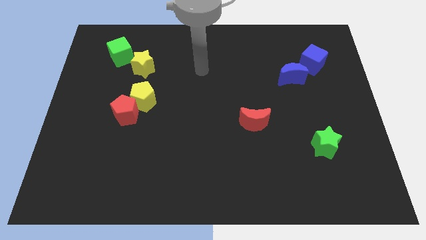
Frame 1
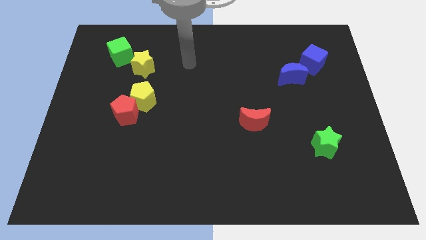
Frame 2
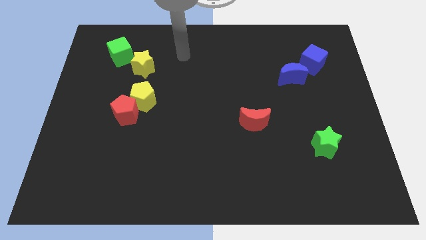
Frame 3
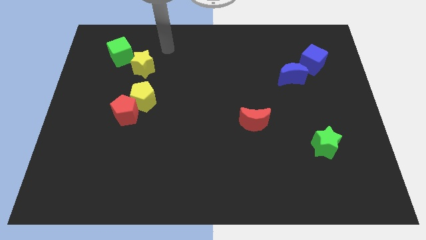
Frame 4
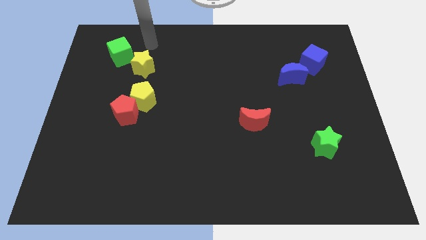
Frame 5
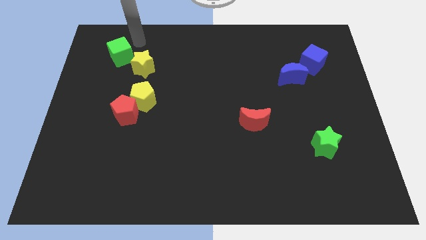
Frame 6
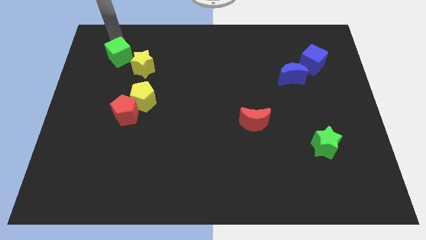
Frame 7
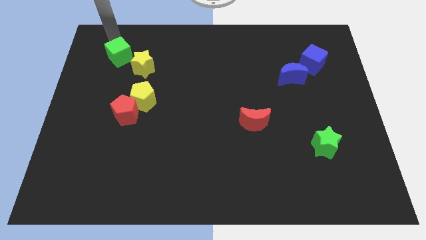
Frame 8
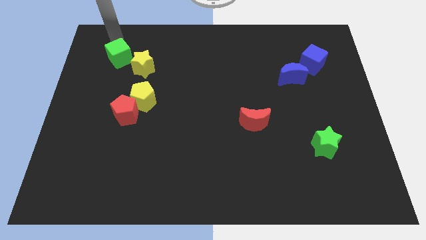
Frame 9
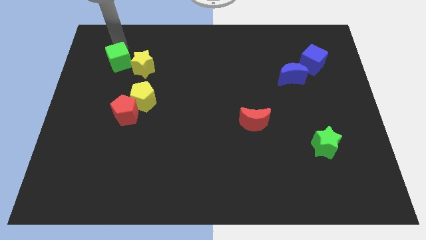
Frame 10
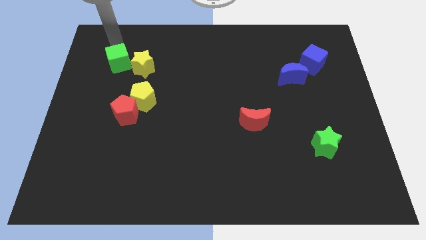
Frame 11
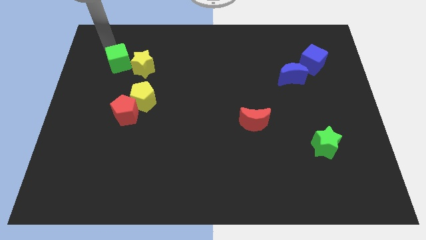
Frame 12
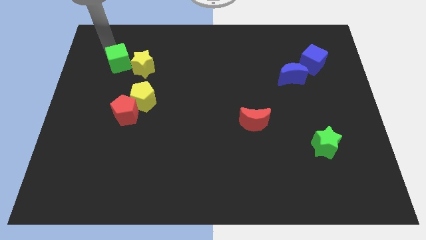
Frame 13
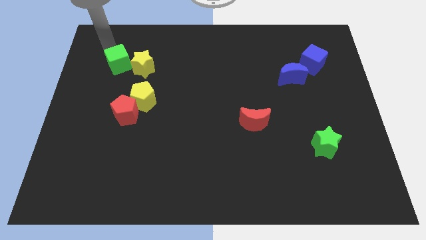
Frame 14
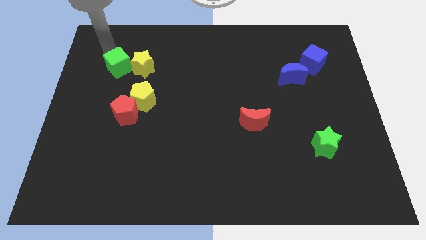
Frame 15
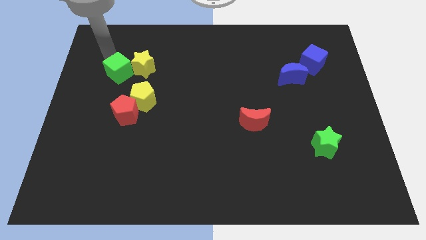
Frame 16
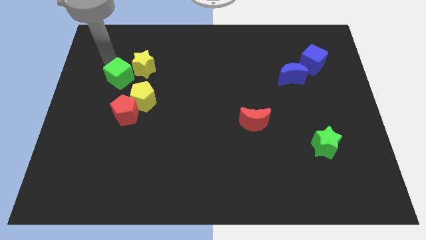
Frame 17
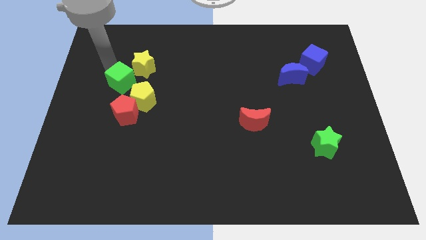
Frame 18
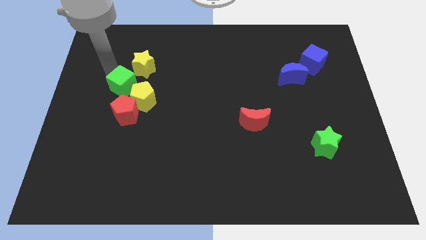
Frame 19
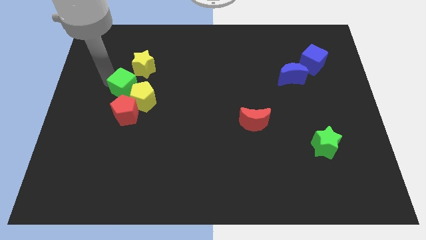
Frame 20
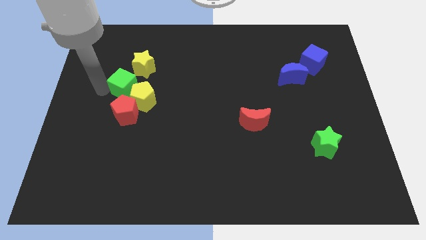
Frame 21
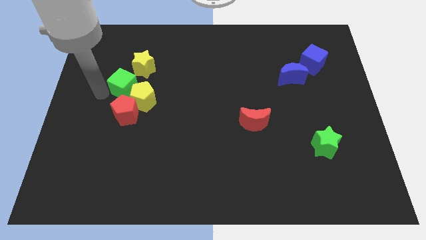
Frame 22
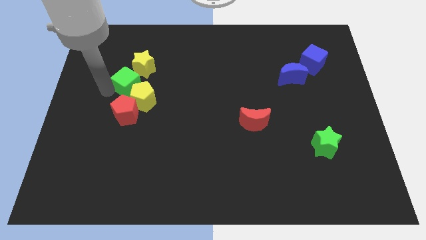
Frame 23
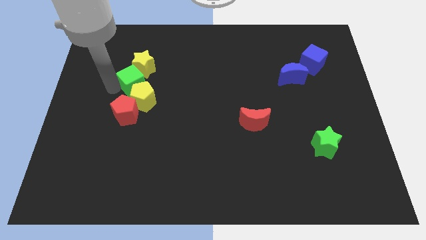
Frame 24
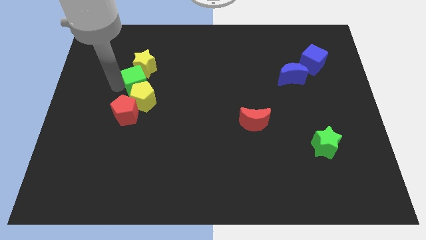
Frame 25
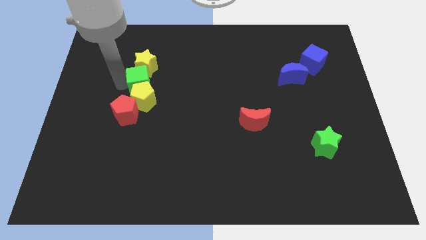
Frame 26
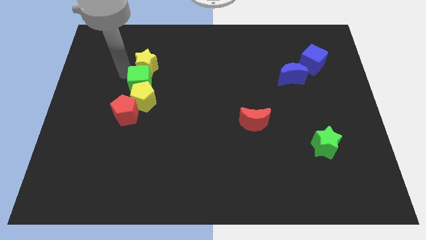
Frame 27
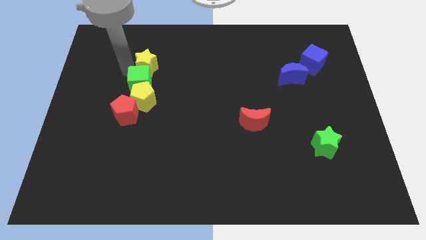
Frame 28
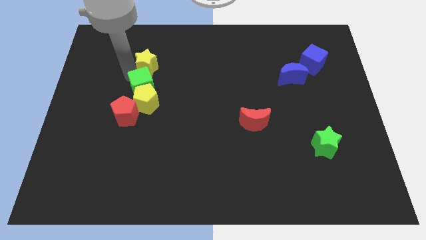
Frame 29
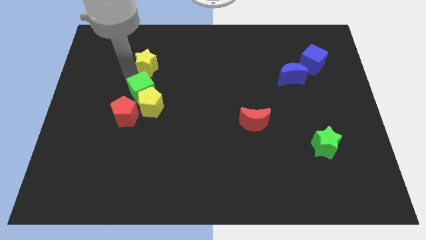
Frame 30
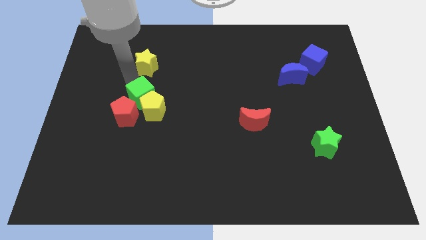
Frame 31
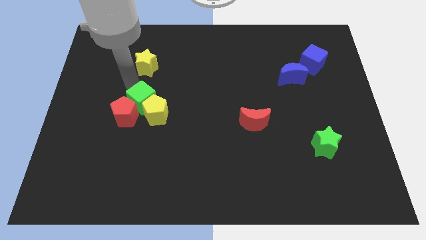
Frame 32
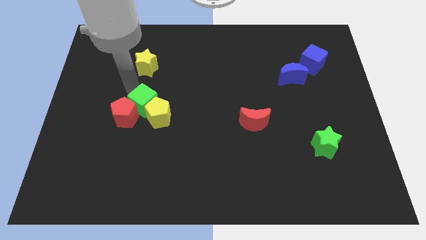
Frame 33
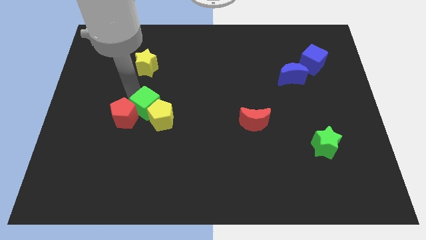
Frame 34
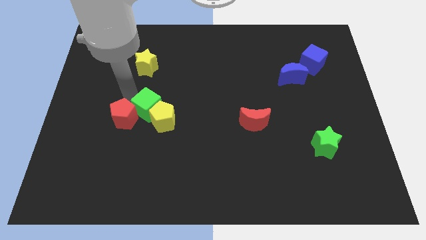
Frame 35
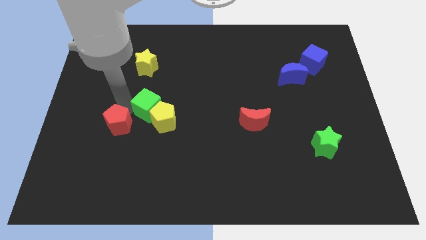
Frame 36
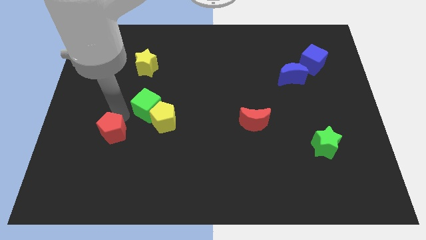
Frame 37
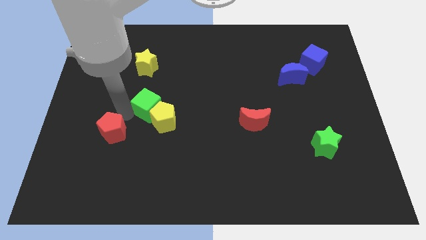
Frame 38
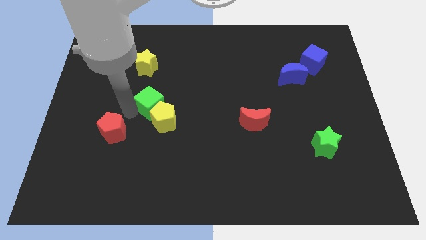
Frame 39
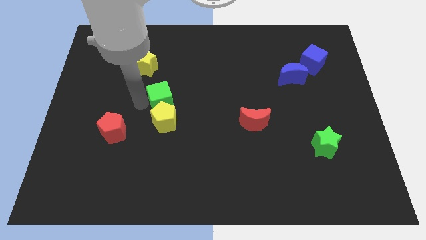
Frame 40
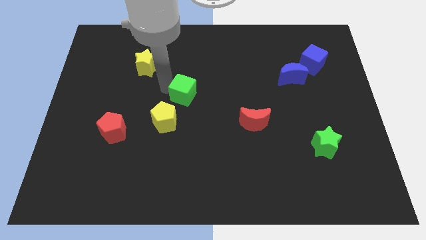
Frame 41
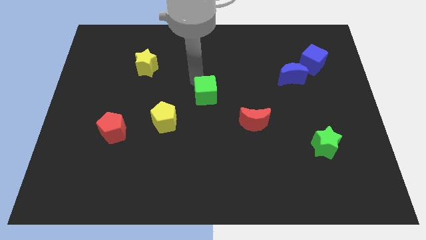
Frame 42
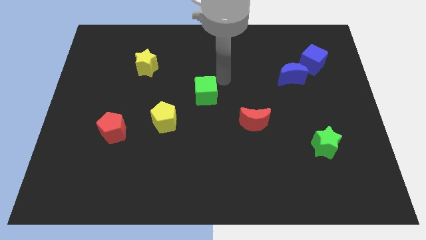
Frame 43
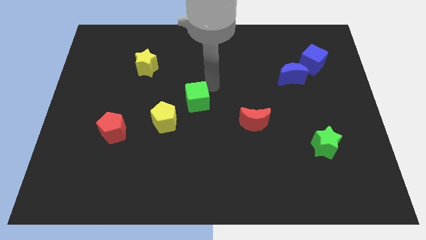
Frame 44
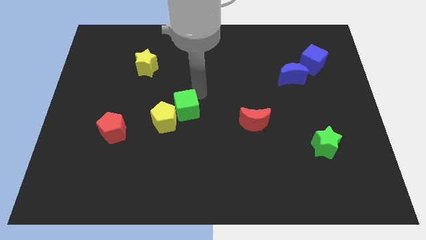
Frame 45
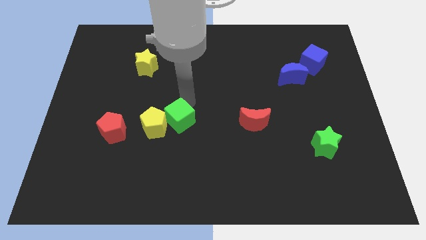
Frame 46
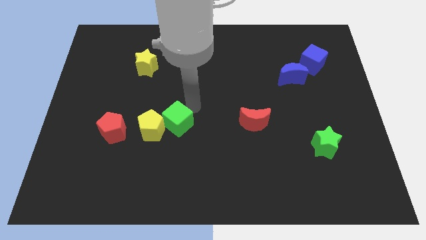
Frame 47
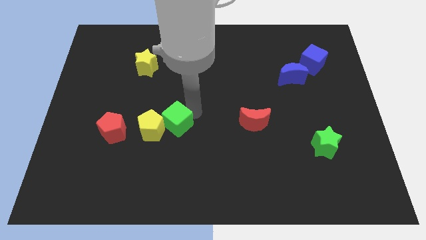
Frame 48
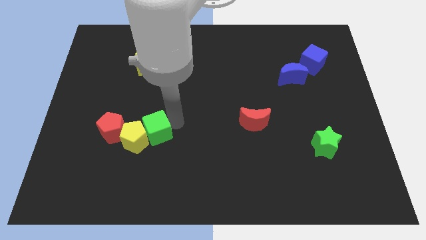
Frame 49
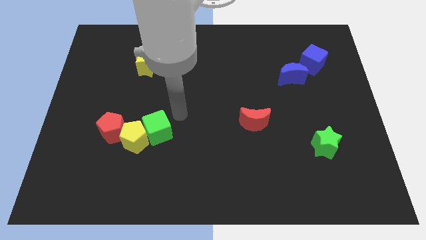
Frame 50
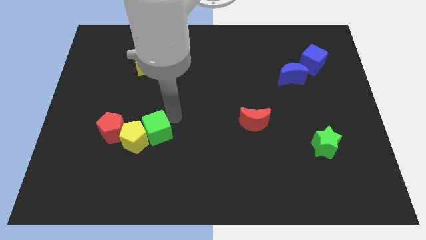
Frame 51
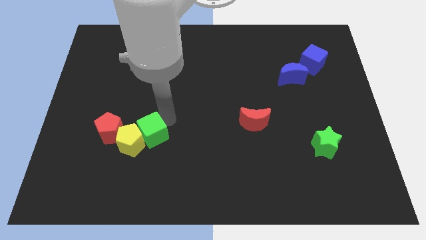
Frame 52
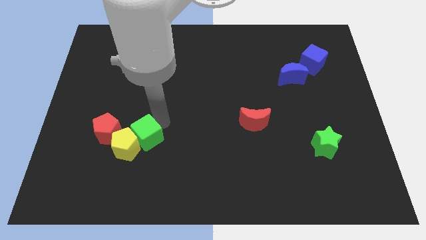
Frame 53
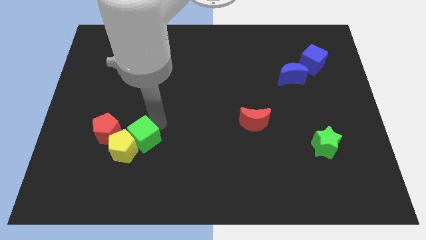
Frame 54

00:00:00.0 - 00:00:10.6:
slide the green cube to the bottom right side of the red pentagon

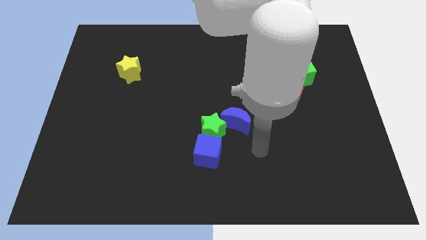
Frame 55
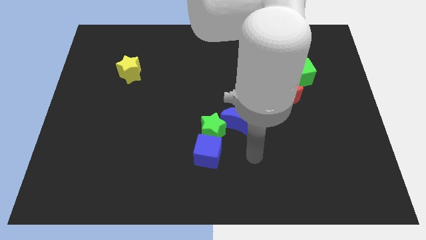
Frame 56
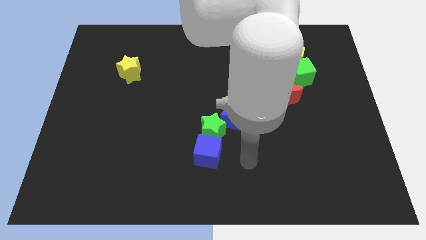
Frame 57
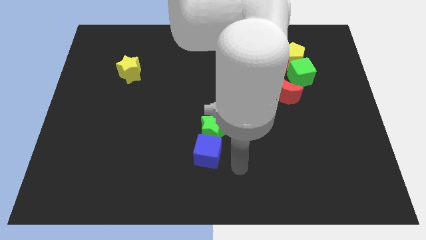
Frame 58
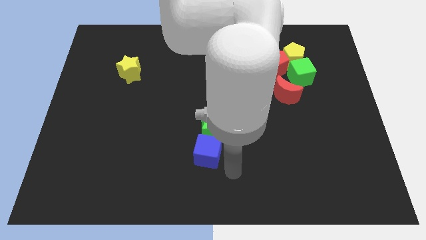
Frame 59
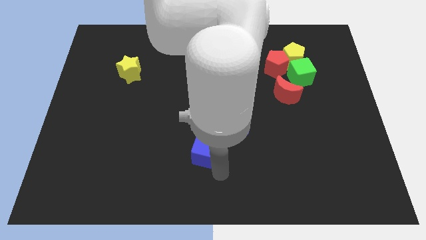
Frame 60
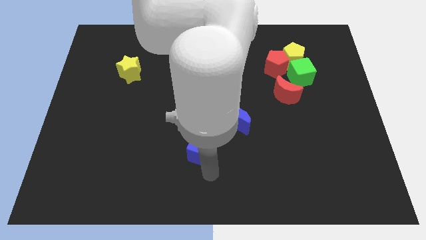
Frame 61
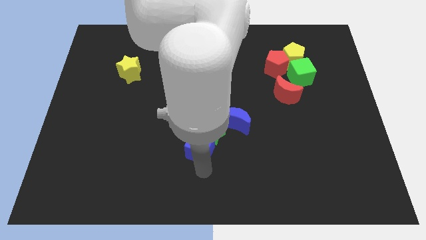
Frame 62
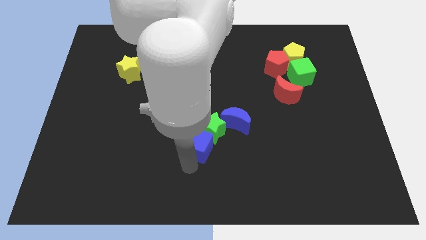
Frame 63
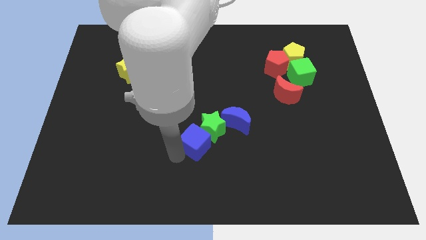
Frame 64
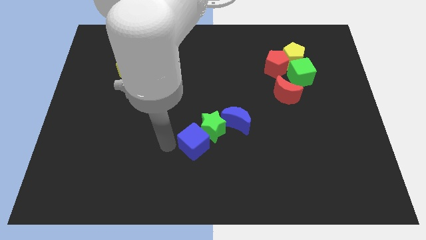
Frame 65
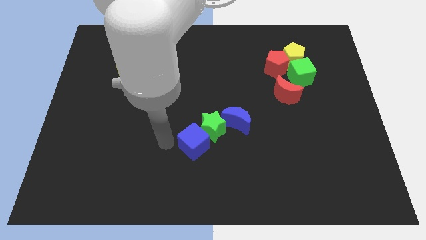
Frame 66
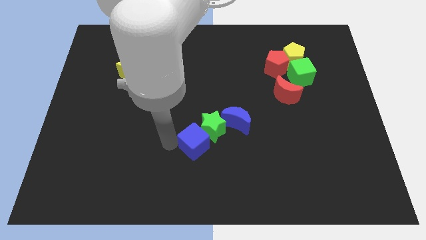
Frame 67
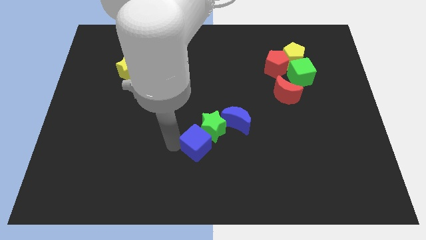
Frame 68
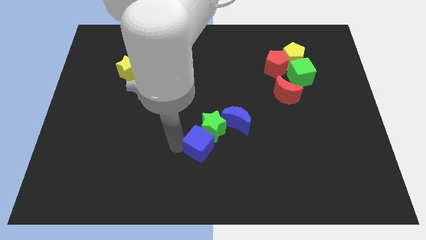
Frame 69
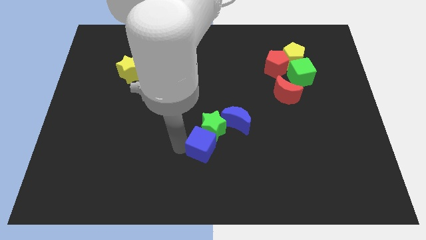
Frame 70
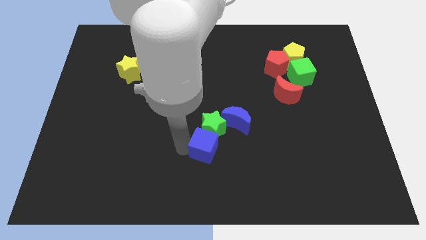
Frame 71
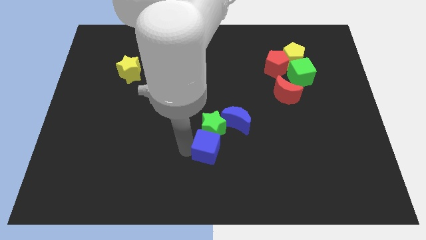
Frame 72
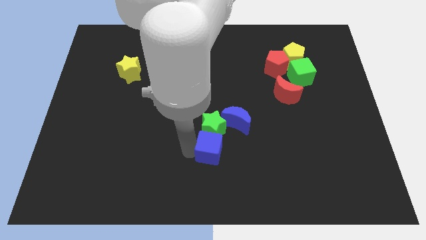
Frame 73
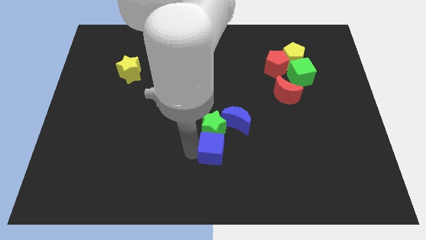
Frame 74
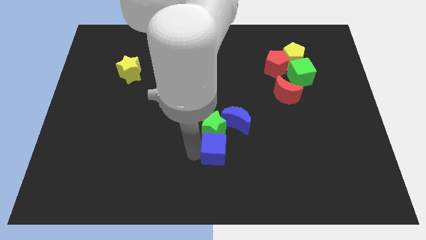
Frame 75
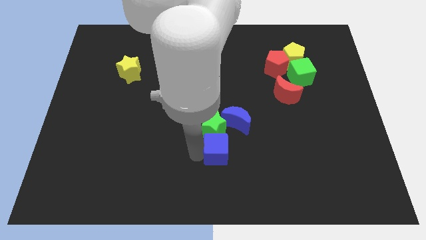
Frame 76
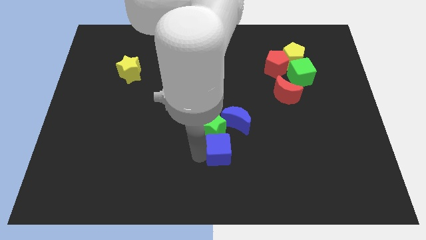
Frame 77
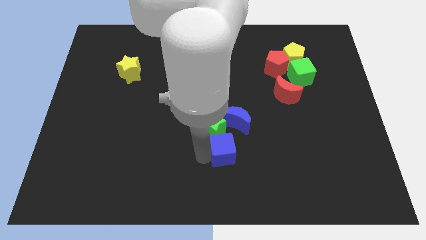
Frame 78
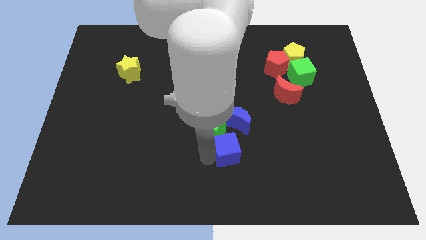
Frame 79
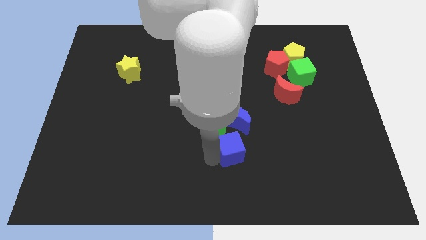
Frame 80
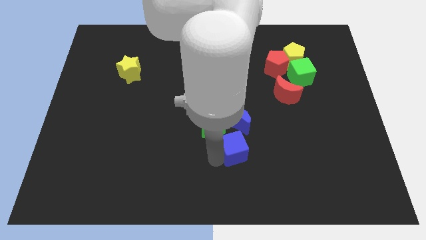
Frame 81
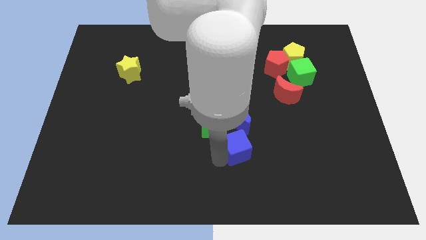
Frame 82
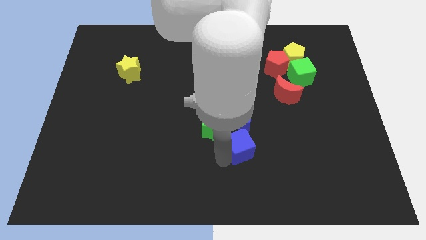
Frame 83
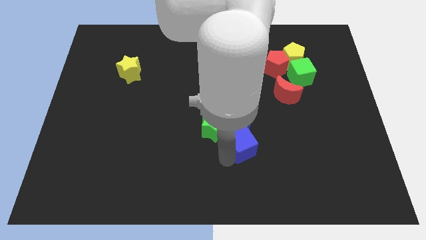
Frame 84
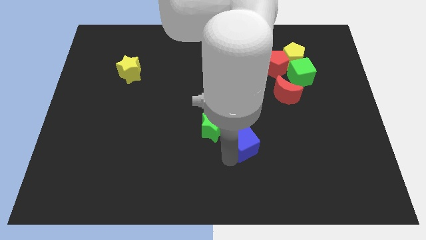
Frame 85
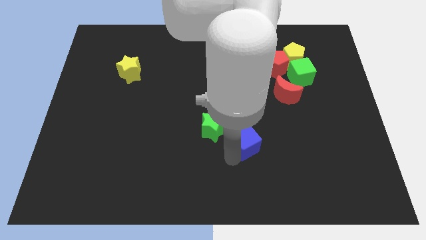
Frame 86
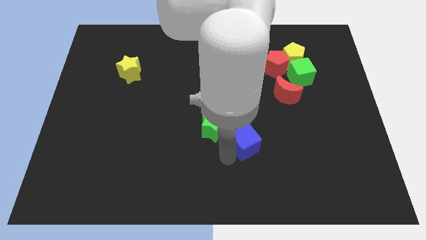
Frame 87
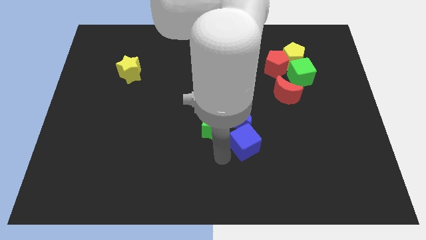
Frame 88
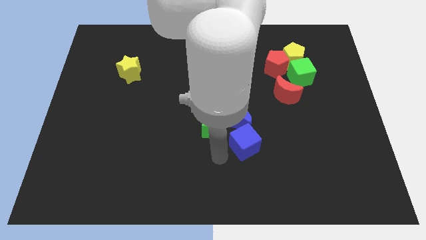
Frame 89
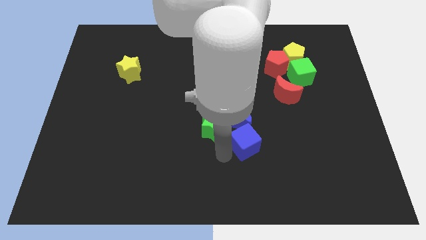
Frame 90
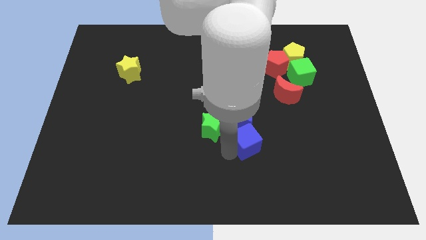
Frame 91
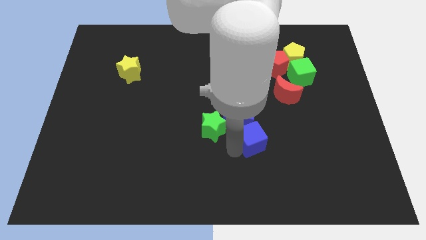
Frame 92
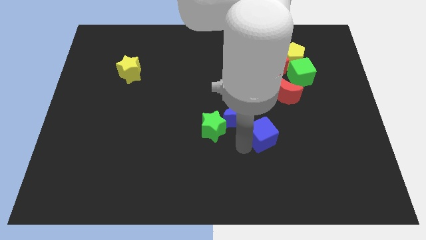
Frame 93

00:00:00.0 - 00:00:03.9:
slide the blue cube right of the blue moon
